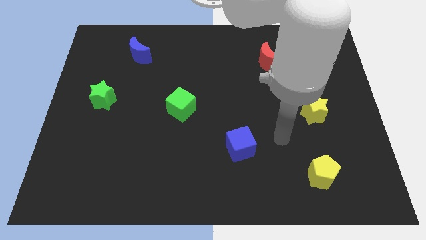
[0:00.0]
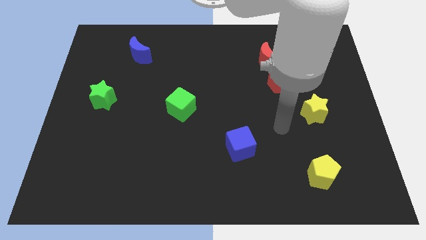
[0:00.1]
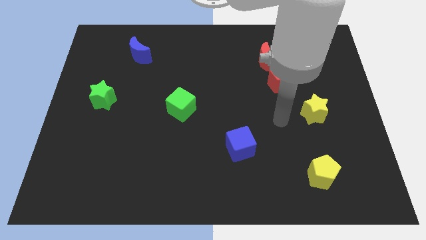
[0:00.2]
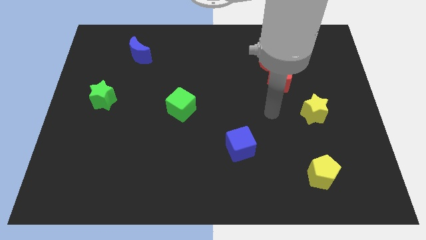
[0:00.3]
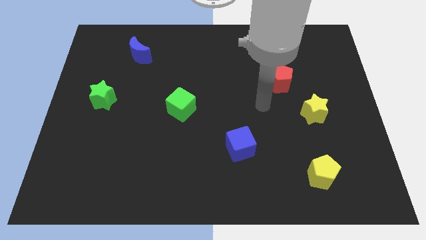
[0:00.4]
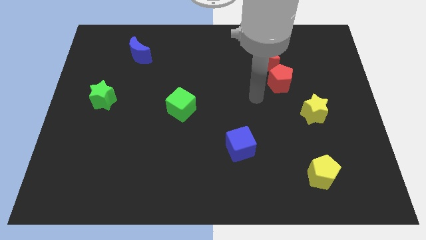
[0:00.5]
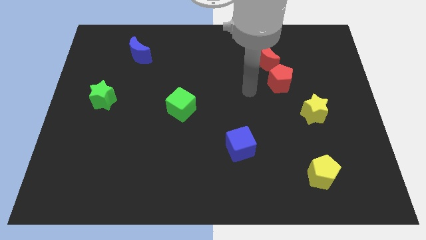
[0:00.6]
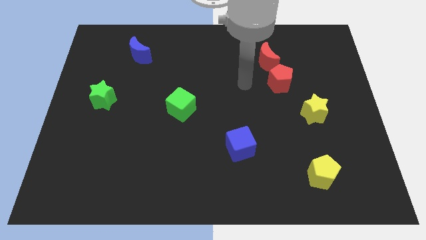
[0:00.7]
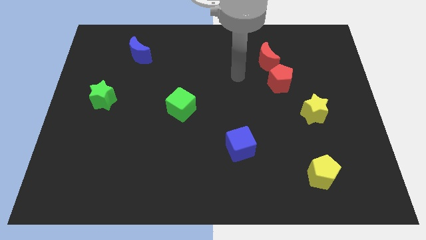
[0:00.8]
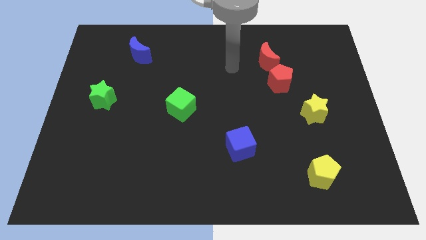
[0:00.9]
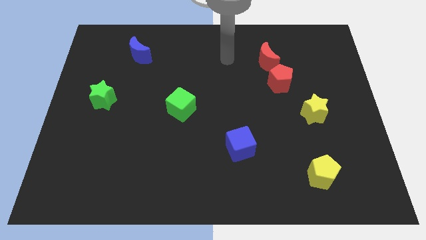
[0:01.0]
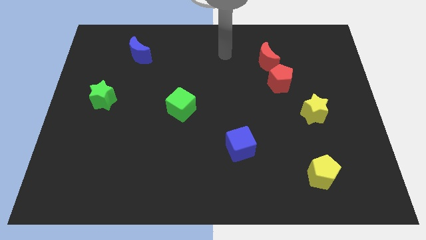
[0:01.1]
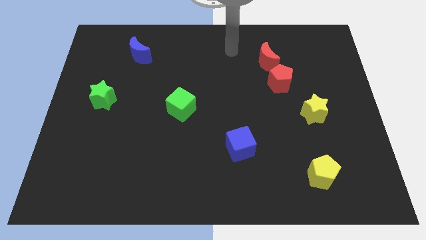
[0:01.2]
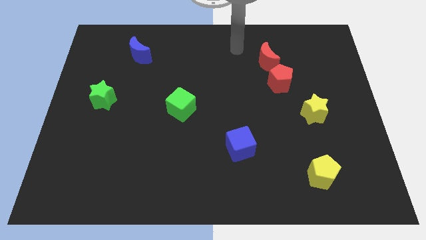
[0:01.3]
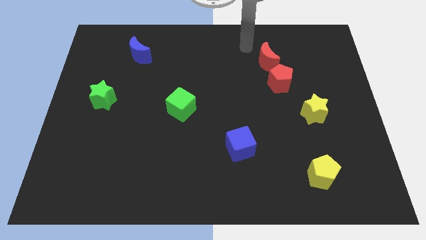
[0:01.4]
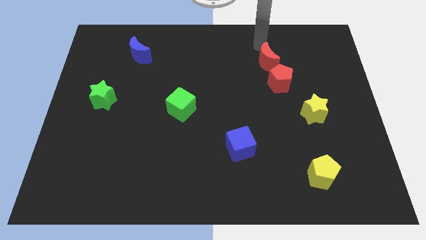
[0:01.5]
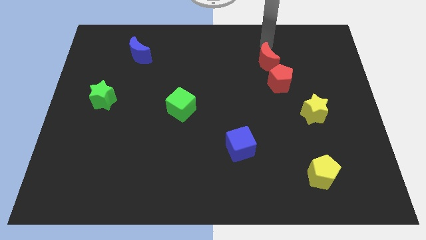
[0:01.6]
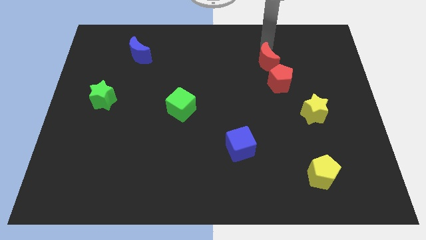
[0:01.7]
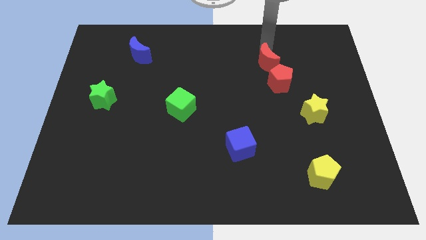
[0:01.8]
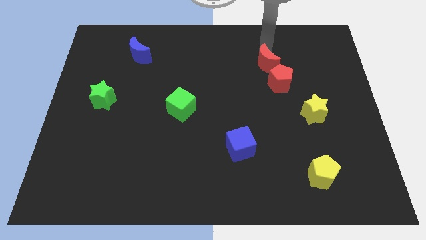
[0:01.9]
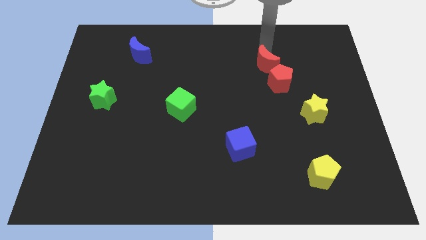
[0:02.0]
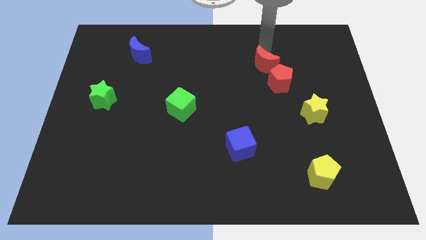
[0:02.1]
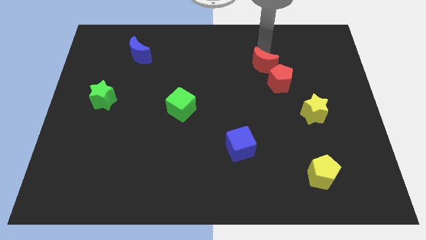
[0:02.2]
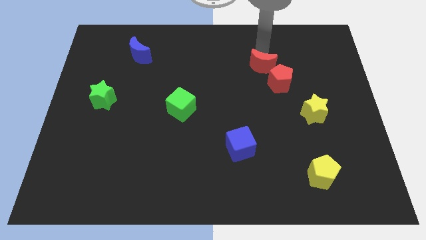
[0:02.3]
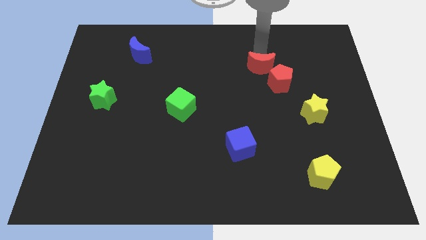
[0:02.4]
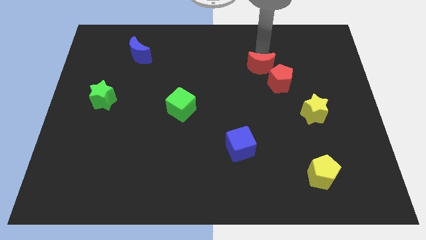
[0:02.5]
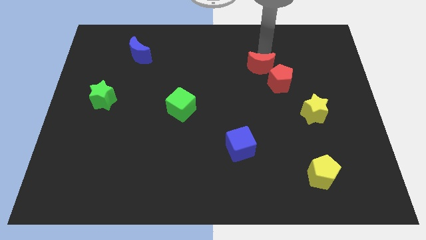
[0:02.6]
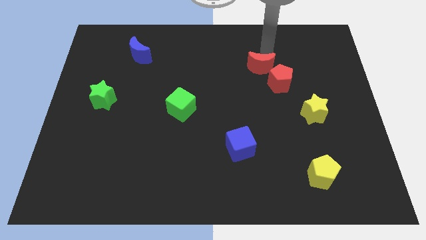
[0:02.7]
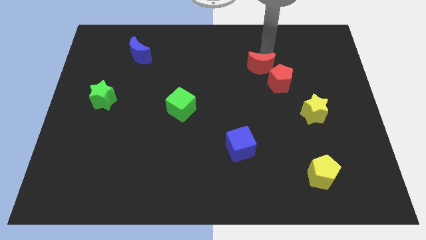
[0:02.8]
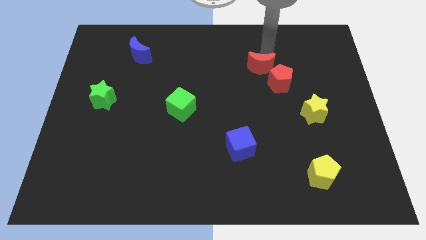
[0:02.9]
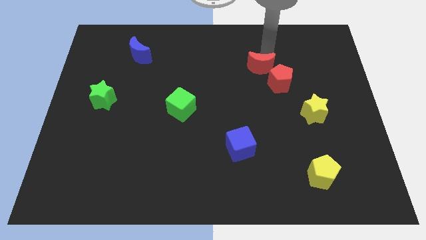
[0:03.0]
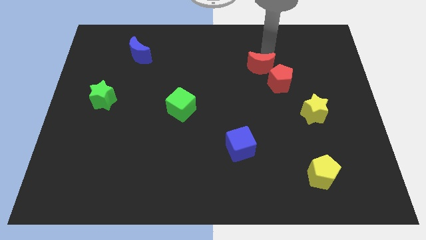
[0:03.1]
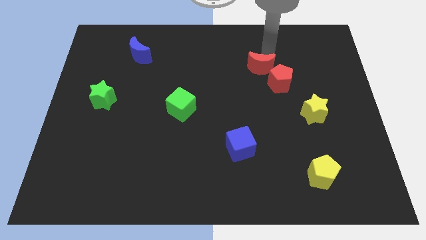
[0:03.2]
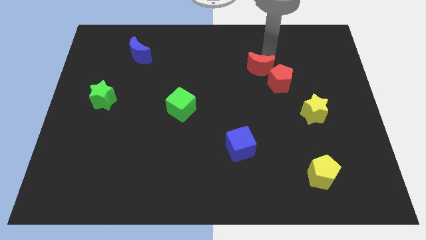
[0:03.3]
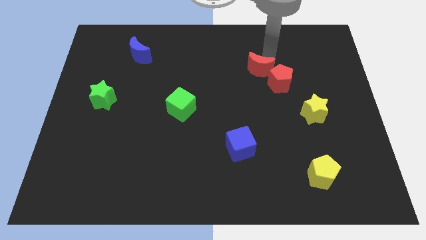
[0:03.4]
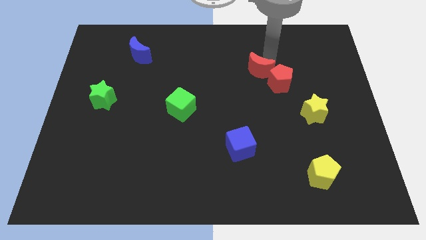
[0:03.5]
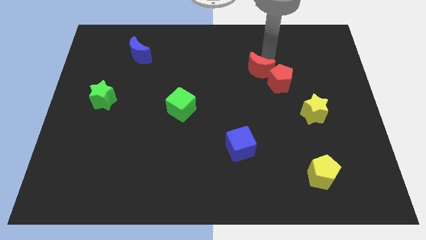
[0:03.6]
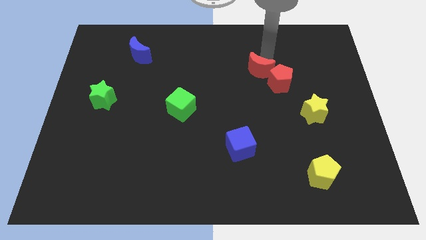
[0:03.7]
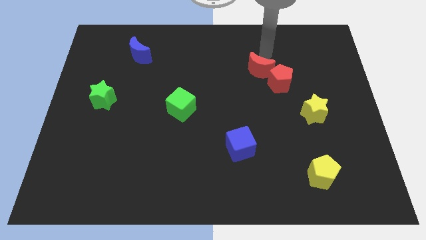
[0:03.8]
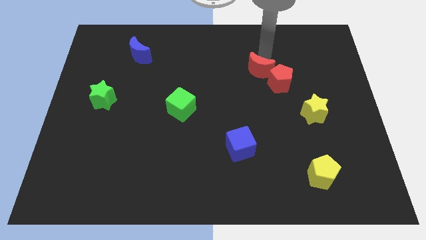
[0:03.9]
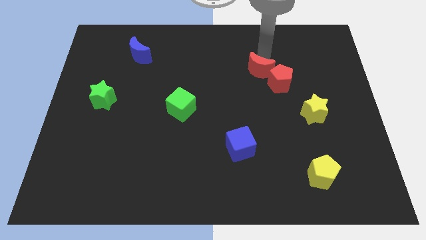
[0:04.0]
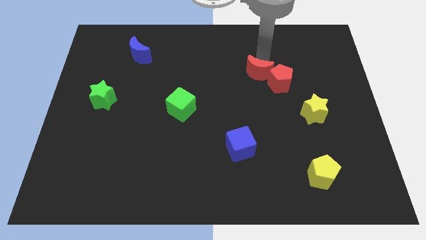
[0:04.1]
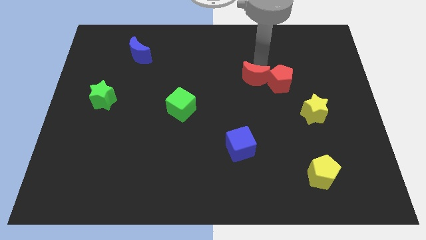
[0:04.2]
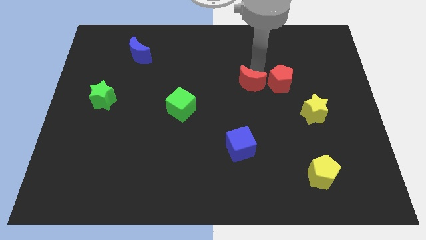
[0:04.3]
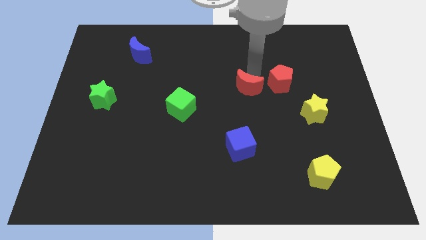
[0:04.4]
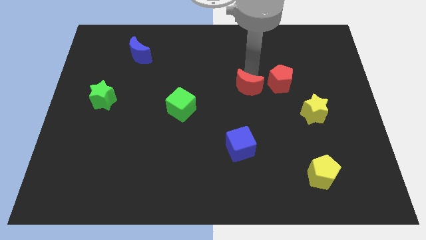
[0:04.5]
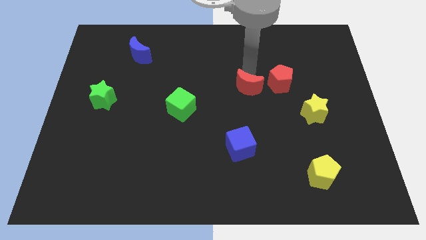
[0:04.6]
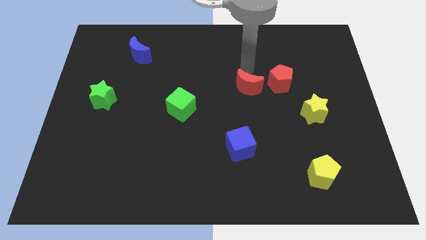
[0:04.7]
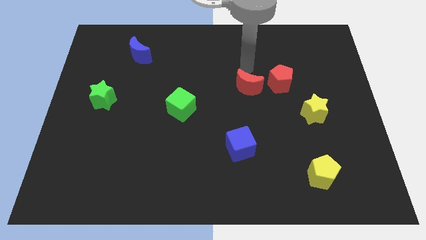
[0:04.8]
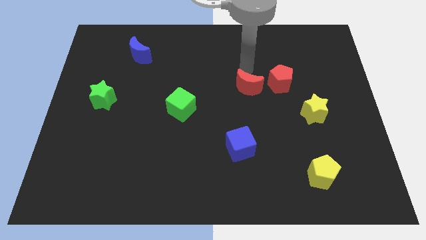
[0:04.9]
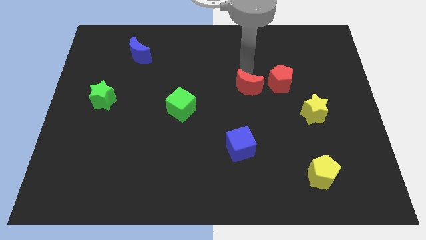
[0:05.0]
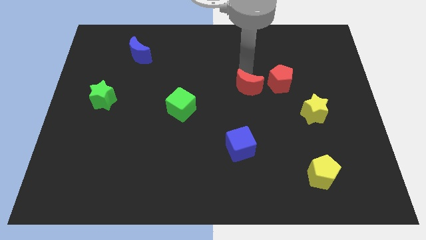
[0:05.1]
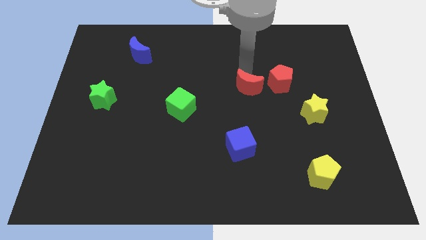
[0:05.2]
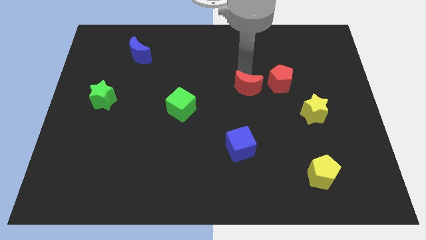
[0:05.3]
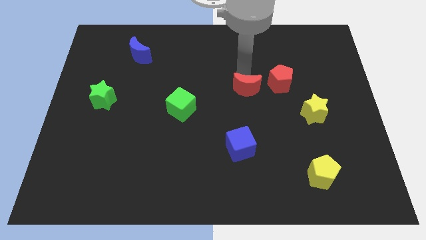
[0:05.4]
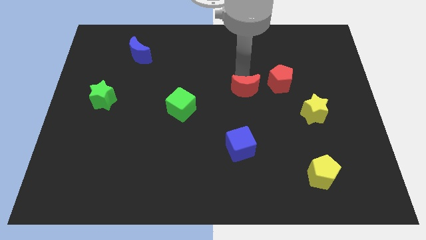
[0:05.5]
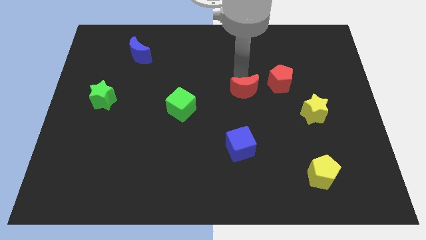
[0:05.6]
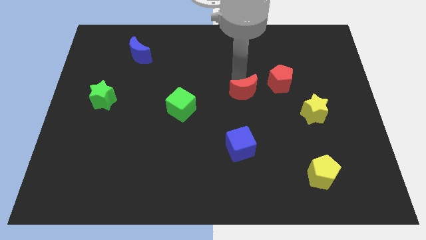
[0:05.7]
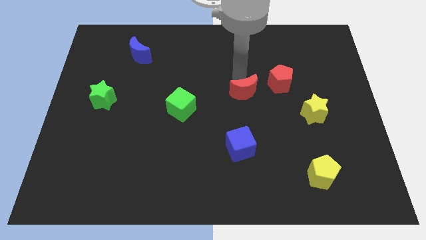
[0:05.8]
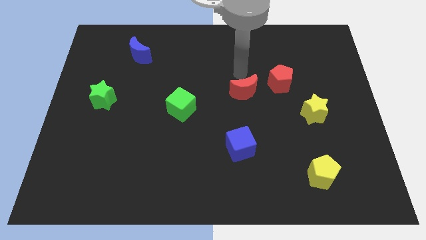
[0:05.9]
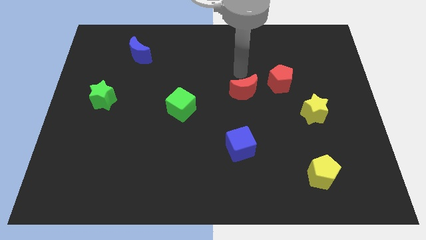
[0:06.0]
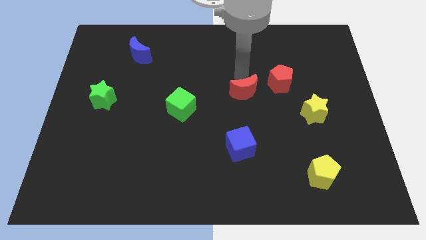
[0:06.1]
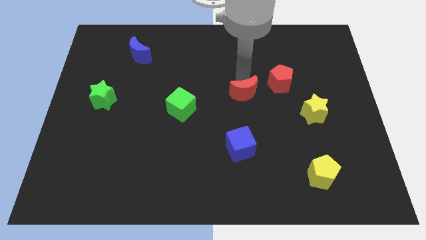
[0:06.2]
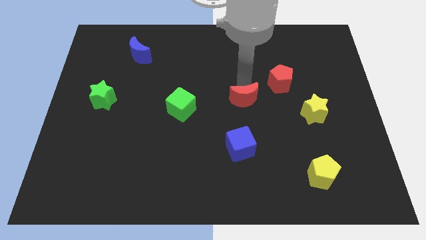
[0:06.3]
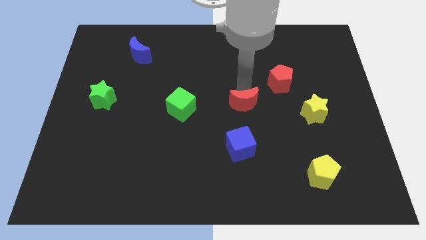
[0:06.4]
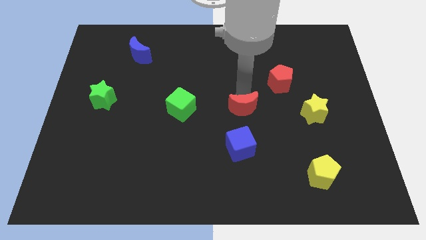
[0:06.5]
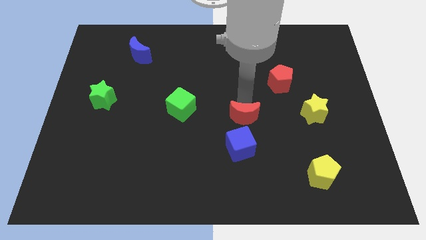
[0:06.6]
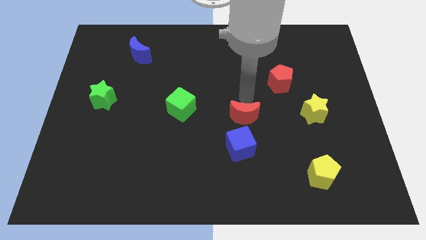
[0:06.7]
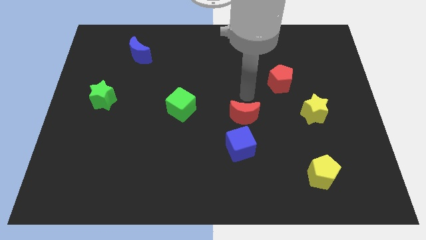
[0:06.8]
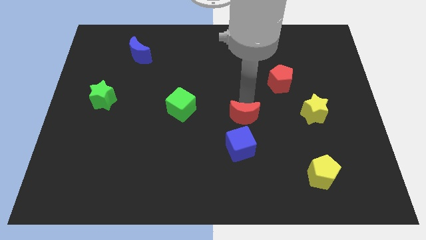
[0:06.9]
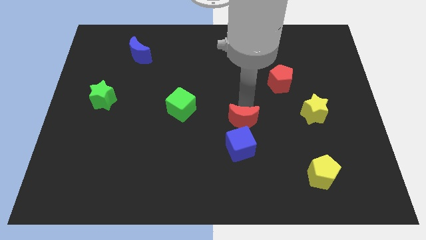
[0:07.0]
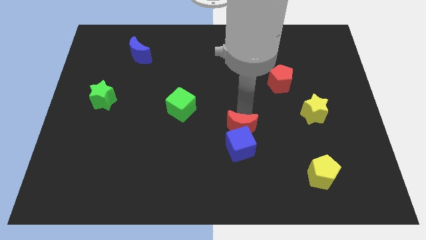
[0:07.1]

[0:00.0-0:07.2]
put the red moon close to the blue cube
